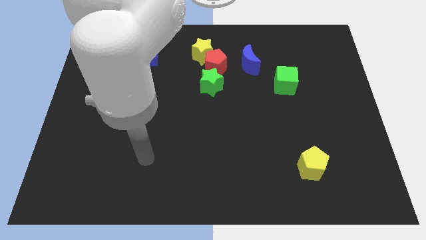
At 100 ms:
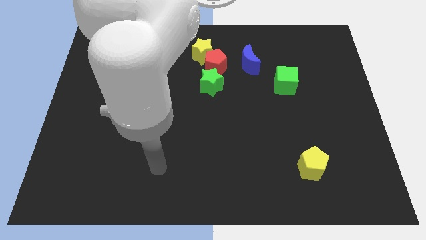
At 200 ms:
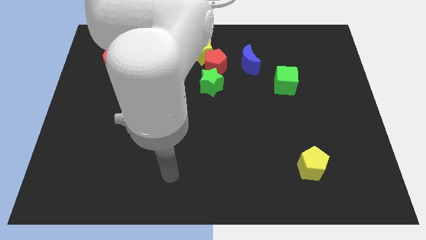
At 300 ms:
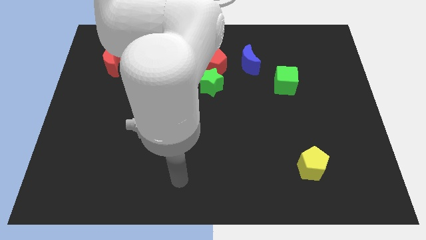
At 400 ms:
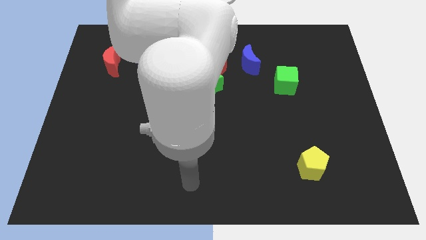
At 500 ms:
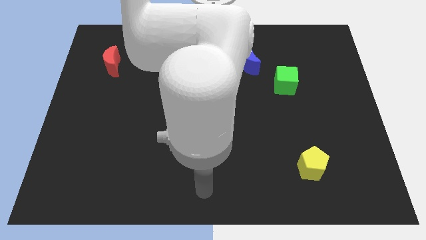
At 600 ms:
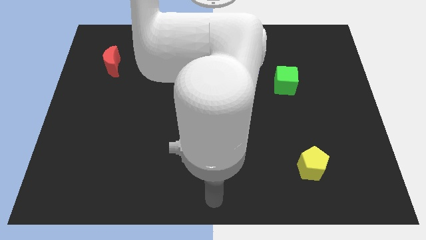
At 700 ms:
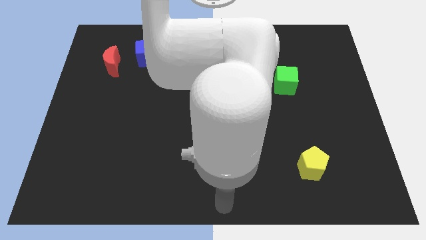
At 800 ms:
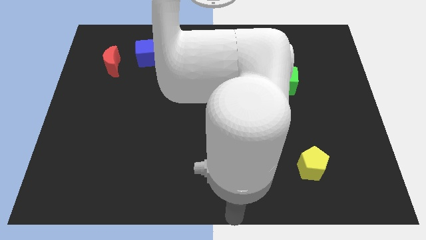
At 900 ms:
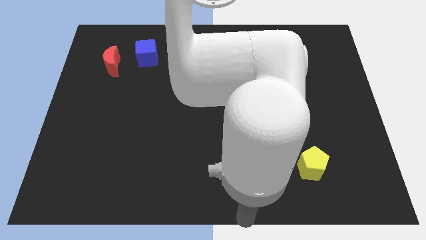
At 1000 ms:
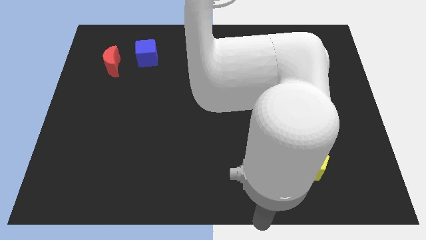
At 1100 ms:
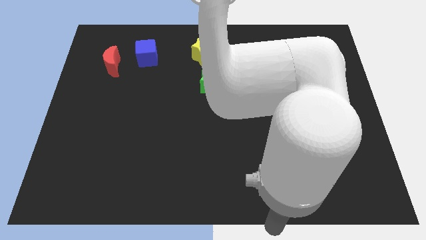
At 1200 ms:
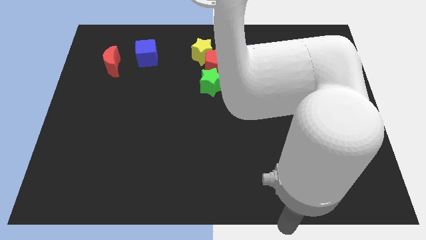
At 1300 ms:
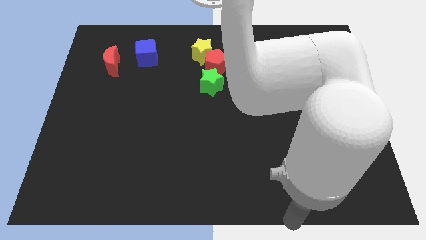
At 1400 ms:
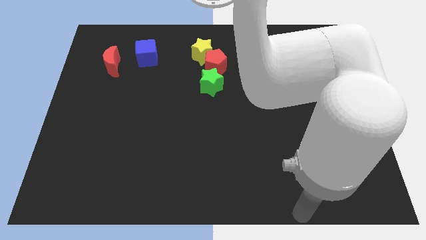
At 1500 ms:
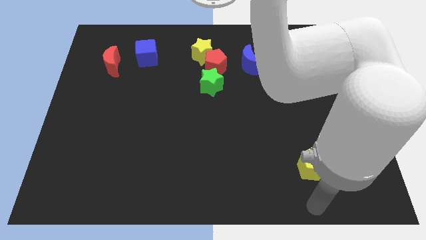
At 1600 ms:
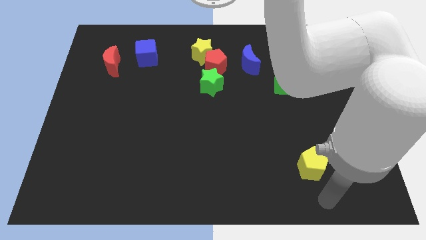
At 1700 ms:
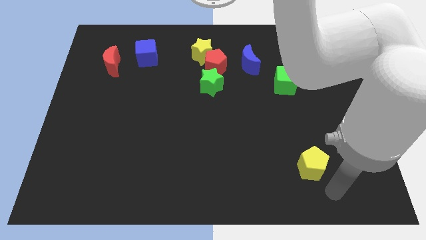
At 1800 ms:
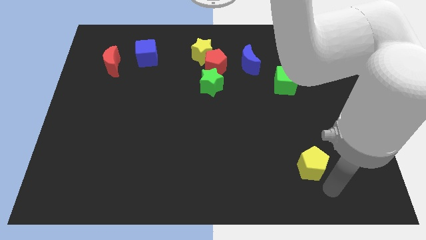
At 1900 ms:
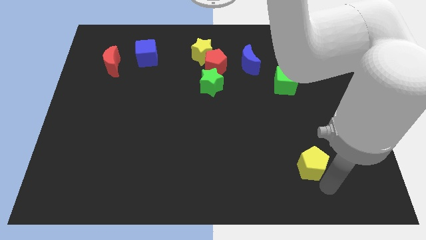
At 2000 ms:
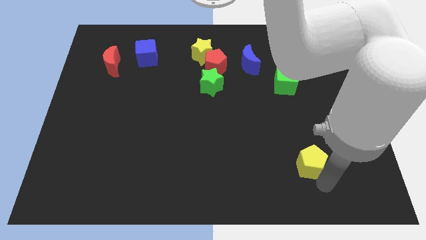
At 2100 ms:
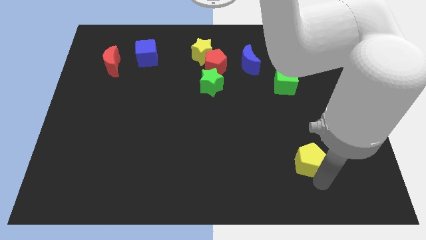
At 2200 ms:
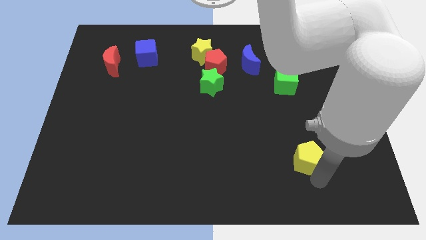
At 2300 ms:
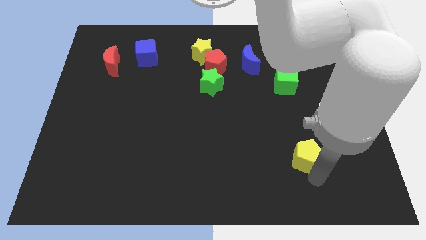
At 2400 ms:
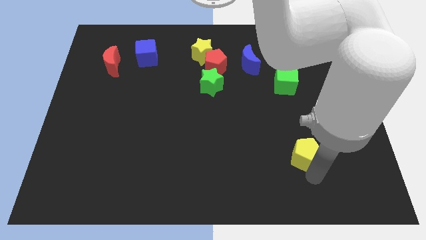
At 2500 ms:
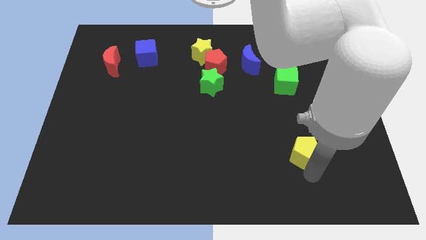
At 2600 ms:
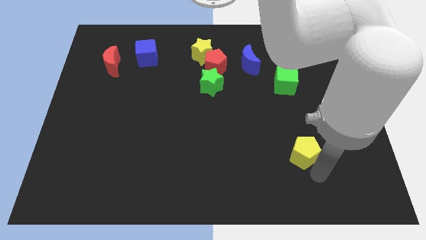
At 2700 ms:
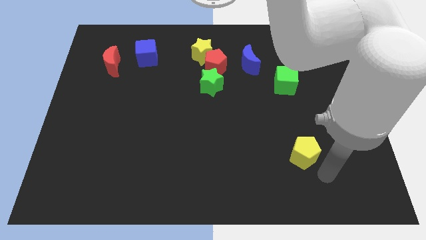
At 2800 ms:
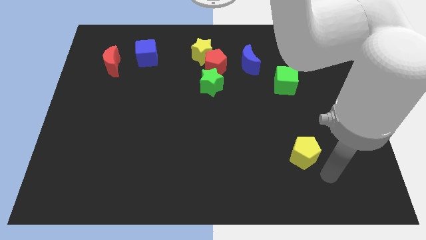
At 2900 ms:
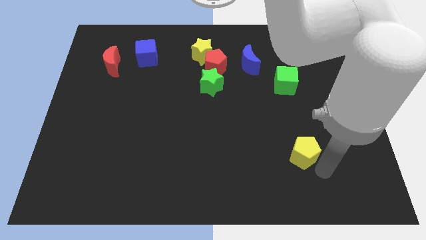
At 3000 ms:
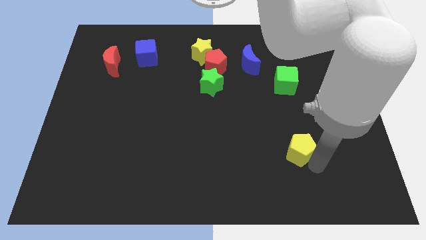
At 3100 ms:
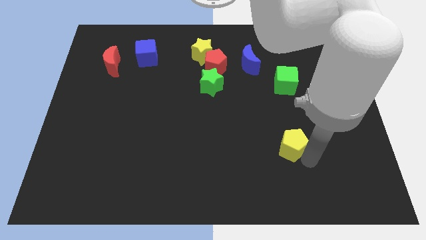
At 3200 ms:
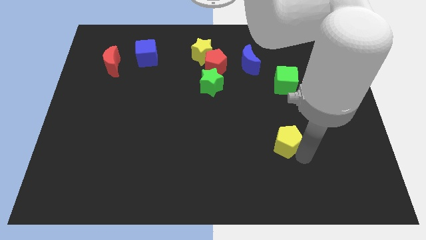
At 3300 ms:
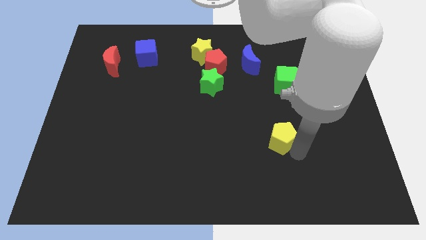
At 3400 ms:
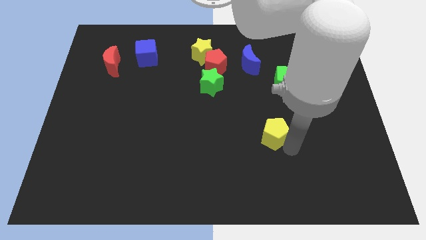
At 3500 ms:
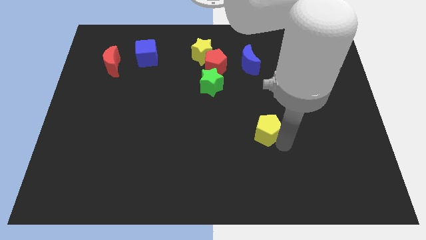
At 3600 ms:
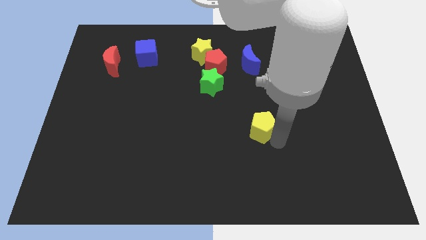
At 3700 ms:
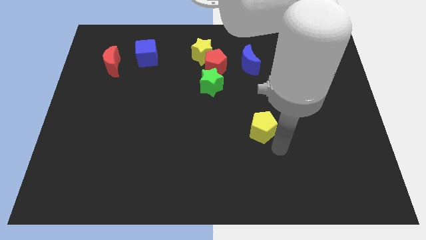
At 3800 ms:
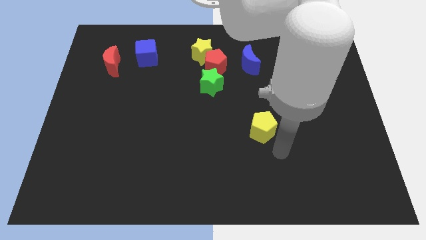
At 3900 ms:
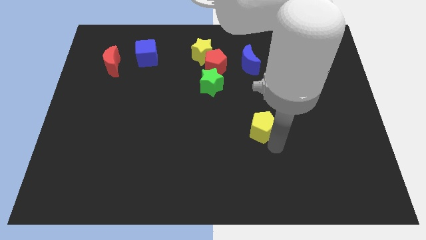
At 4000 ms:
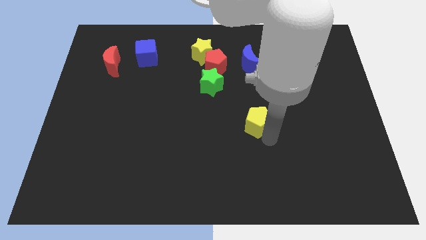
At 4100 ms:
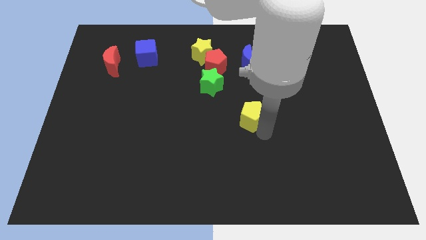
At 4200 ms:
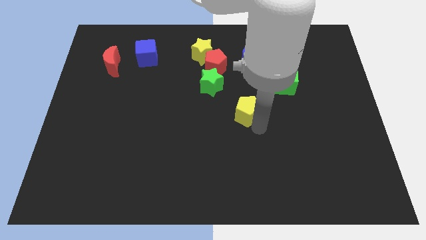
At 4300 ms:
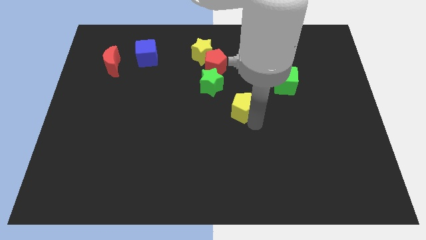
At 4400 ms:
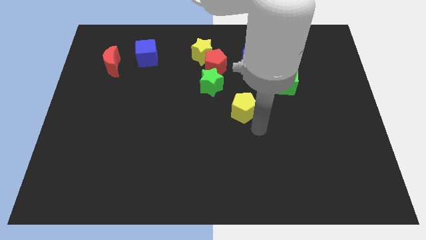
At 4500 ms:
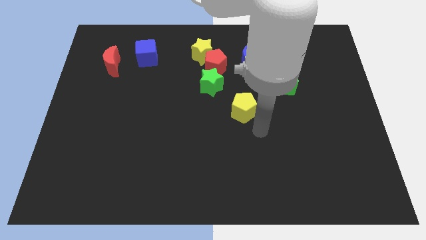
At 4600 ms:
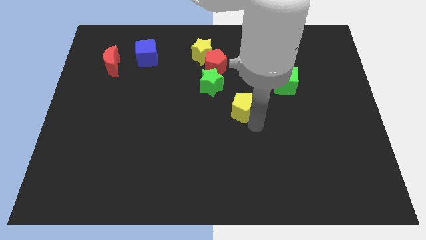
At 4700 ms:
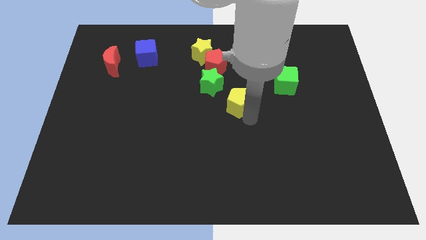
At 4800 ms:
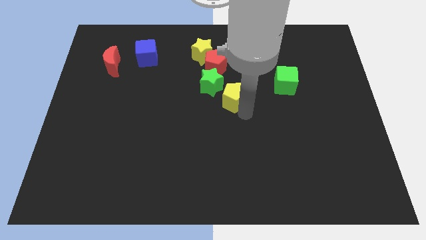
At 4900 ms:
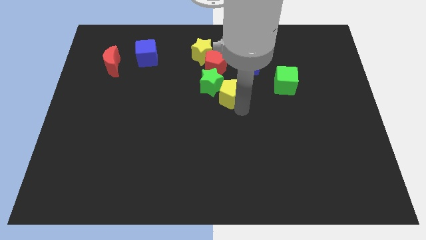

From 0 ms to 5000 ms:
put the yellow pentagon towards the green star

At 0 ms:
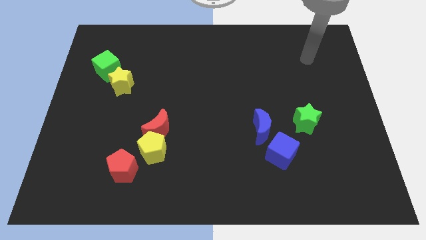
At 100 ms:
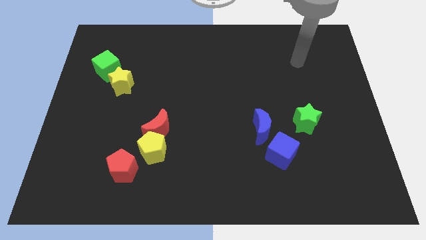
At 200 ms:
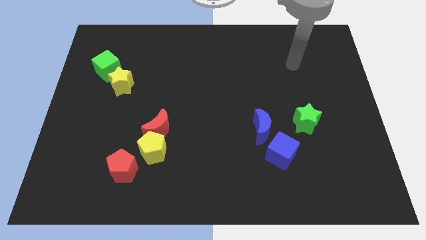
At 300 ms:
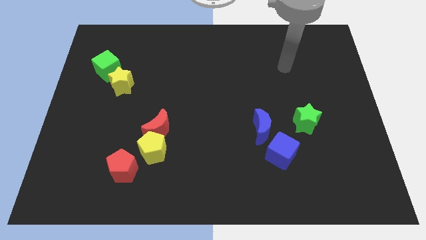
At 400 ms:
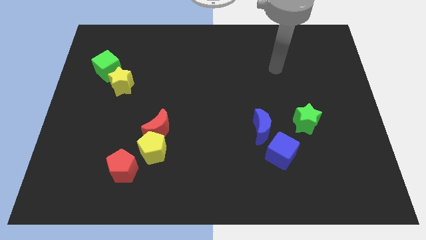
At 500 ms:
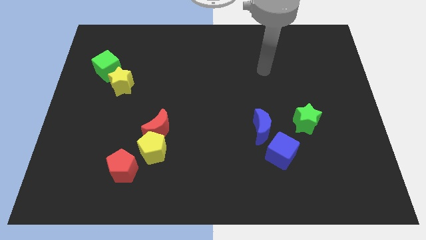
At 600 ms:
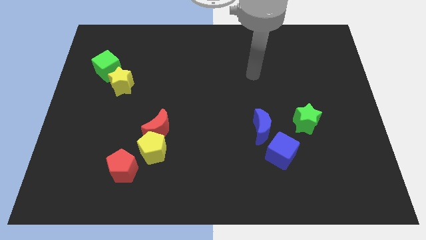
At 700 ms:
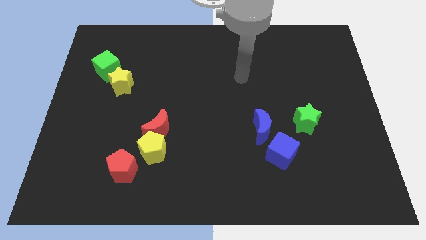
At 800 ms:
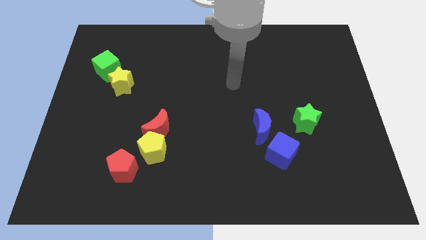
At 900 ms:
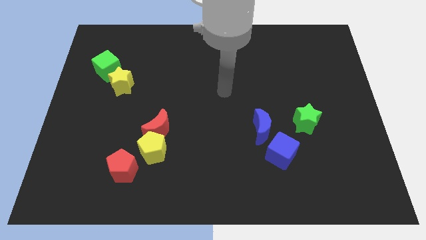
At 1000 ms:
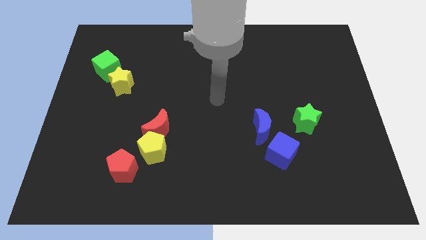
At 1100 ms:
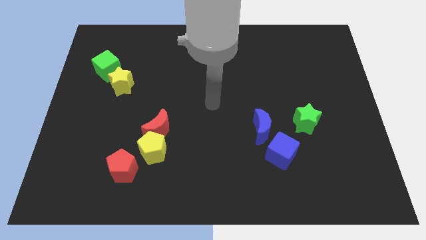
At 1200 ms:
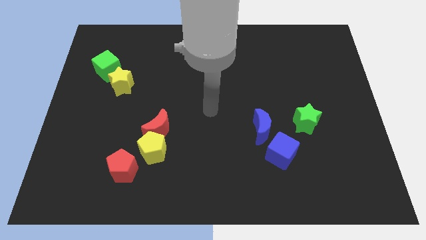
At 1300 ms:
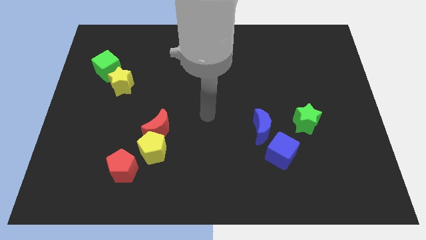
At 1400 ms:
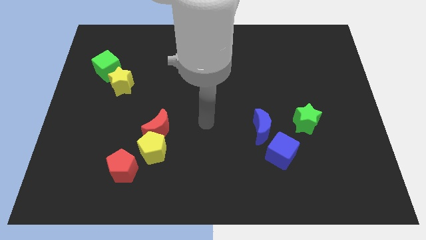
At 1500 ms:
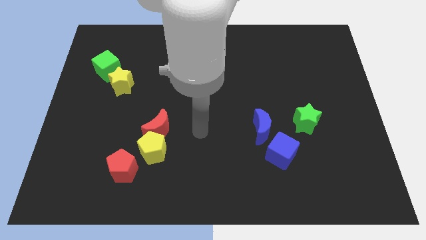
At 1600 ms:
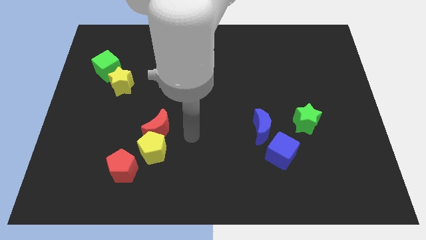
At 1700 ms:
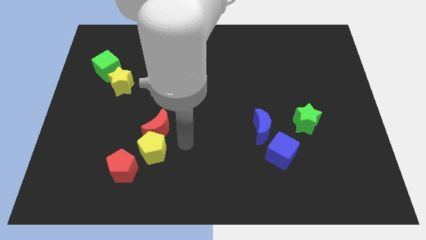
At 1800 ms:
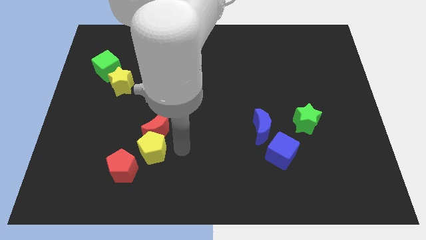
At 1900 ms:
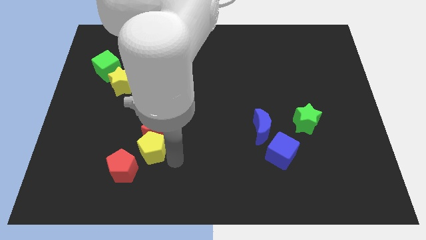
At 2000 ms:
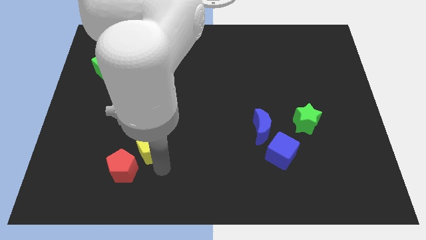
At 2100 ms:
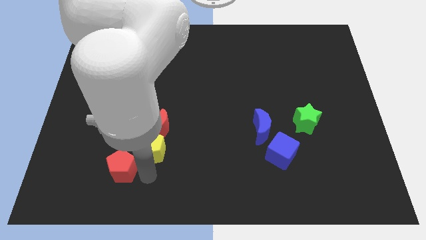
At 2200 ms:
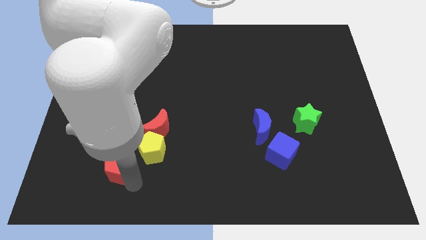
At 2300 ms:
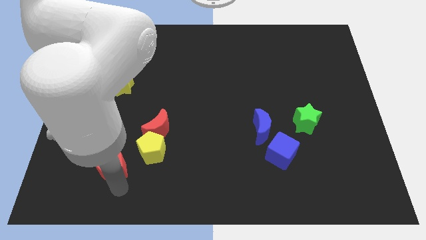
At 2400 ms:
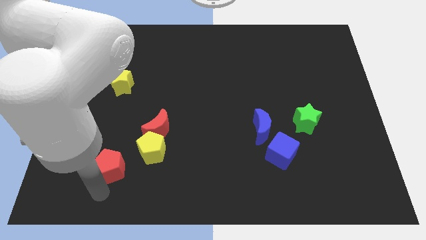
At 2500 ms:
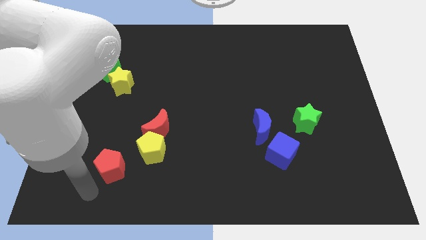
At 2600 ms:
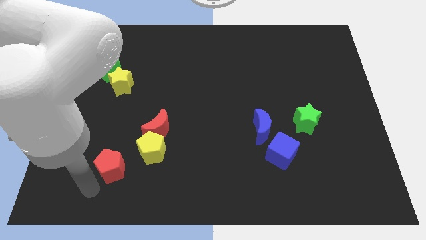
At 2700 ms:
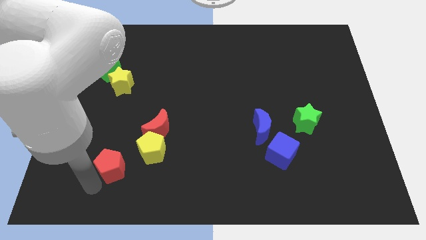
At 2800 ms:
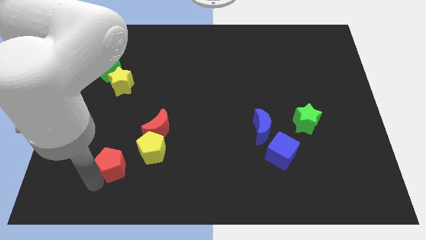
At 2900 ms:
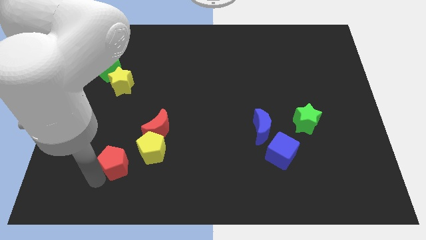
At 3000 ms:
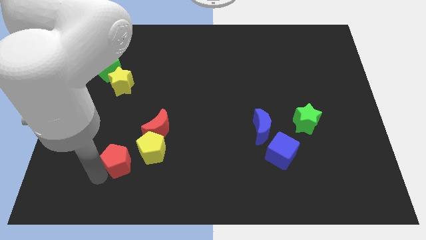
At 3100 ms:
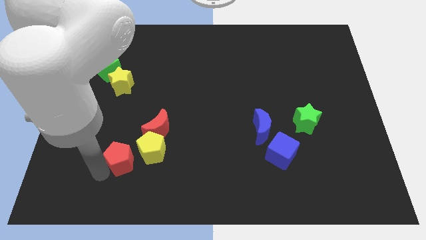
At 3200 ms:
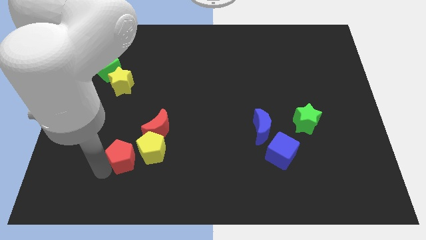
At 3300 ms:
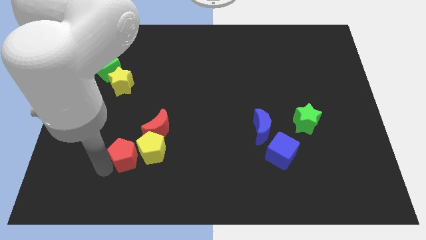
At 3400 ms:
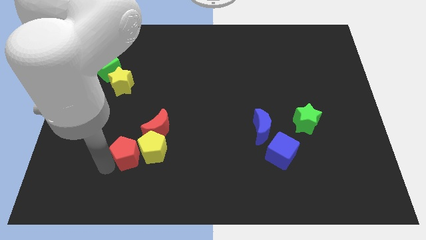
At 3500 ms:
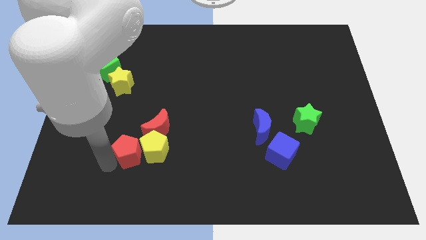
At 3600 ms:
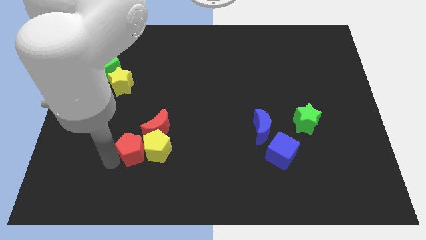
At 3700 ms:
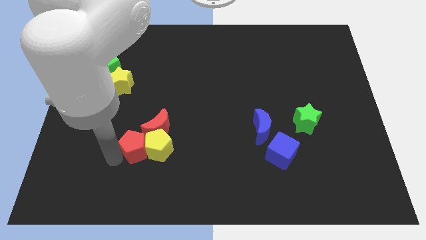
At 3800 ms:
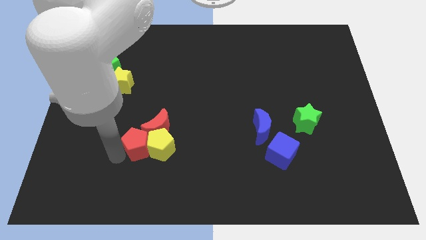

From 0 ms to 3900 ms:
push the red pentagon towards the red moon
